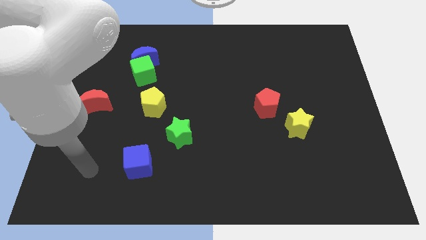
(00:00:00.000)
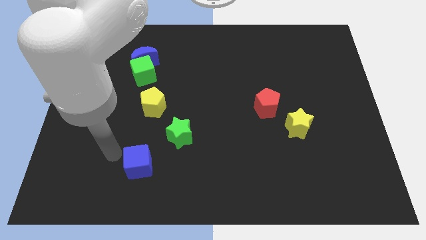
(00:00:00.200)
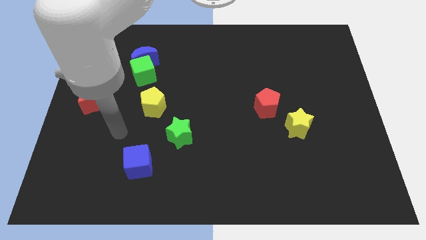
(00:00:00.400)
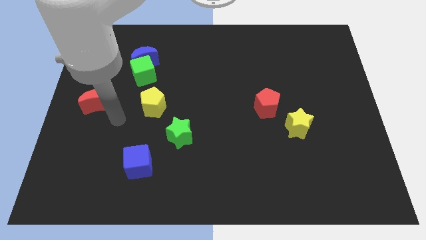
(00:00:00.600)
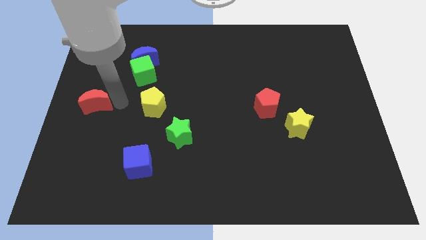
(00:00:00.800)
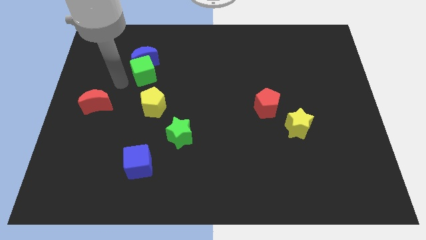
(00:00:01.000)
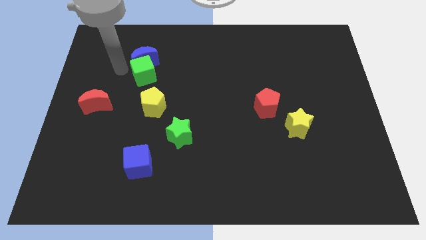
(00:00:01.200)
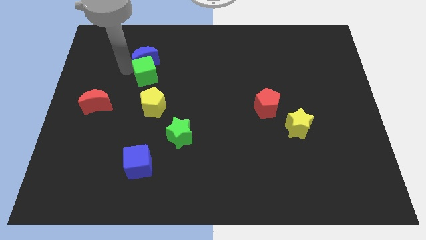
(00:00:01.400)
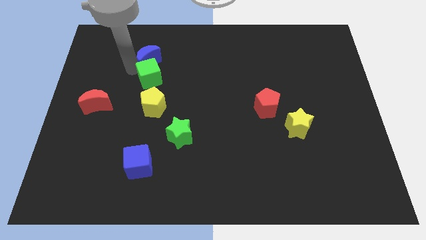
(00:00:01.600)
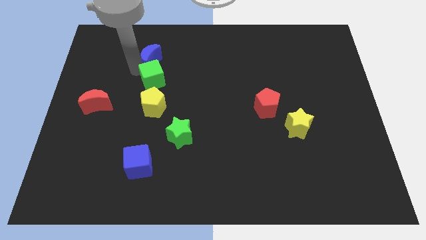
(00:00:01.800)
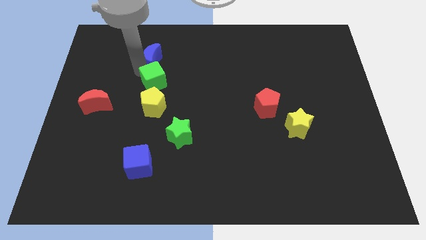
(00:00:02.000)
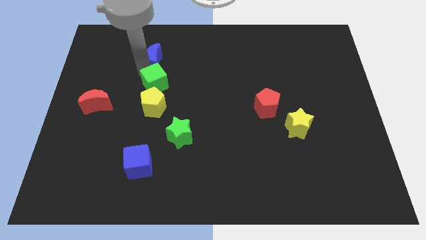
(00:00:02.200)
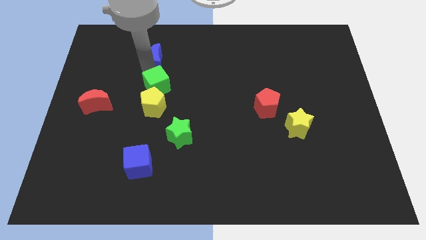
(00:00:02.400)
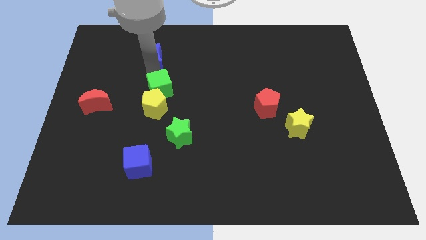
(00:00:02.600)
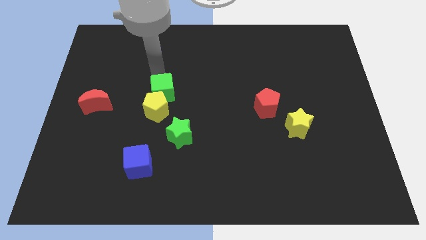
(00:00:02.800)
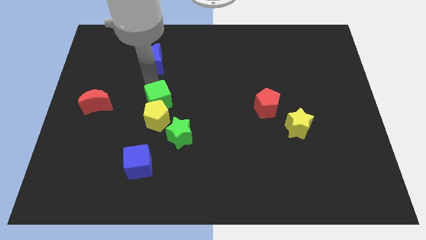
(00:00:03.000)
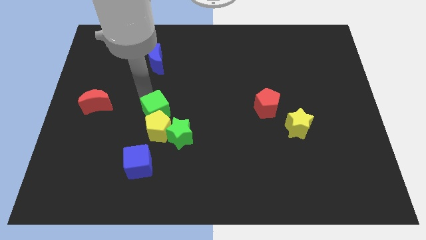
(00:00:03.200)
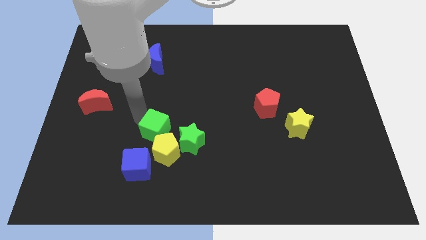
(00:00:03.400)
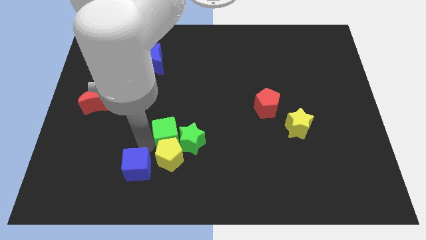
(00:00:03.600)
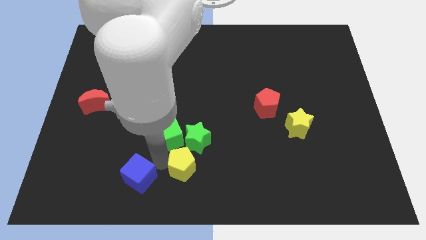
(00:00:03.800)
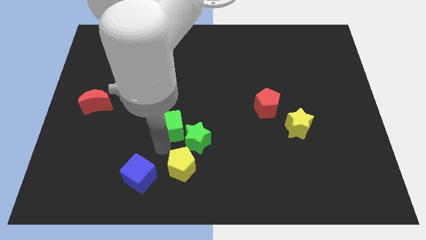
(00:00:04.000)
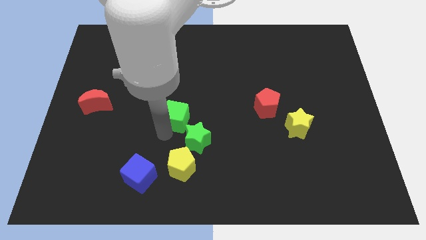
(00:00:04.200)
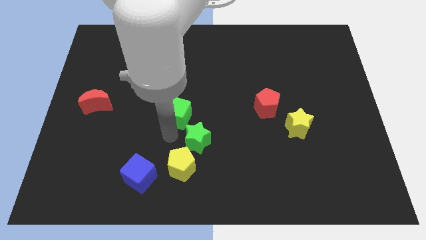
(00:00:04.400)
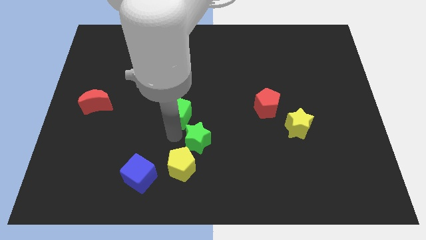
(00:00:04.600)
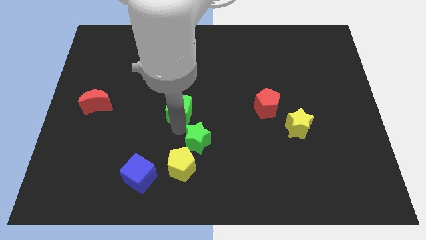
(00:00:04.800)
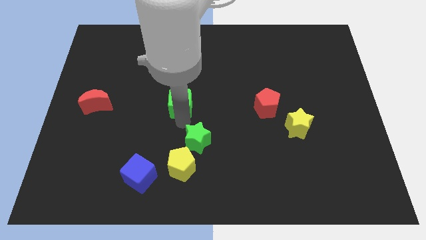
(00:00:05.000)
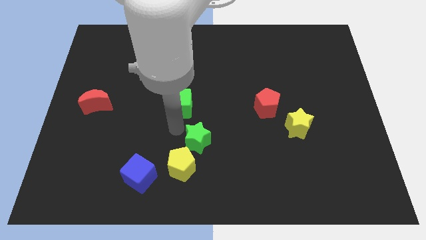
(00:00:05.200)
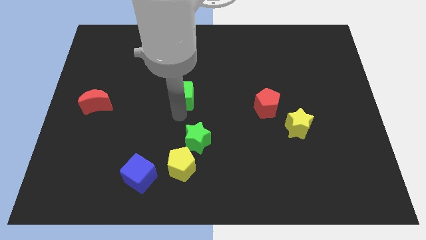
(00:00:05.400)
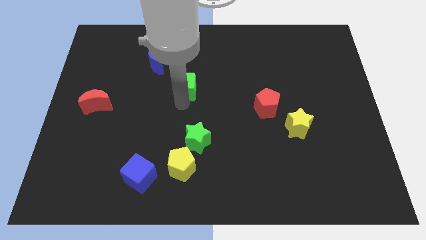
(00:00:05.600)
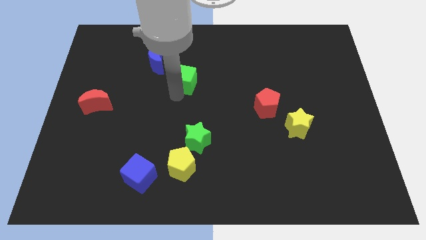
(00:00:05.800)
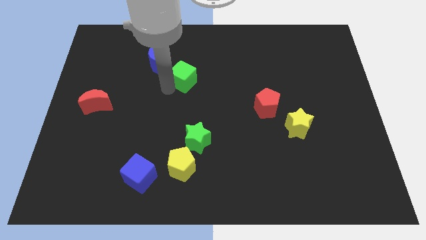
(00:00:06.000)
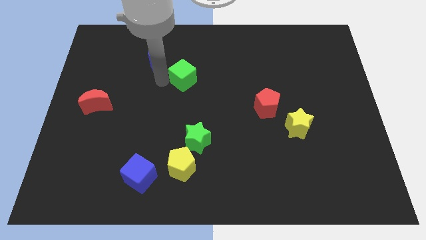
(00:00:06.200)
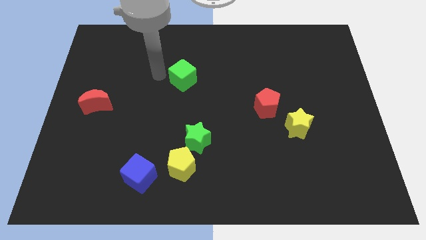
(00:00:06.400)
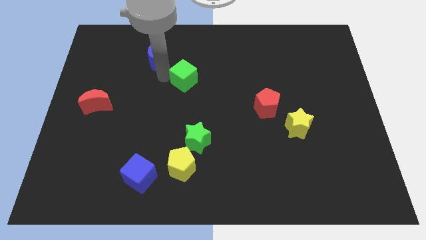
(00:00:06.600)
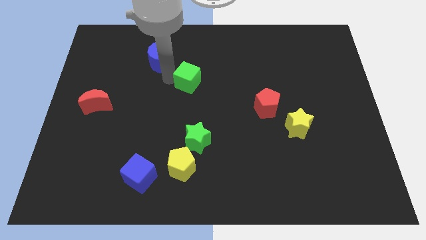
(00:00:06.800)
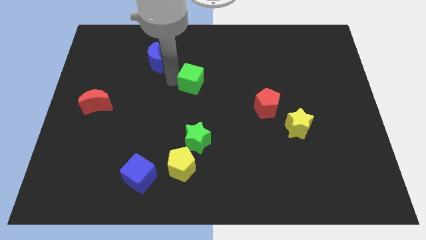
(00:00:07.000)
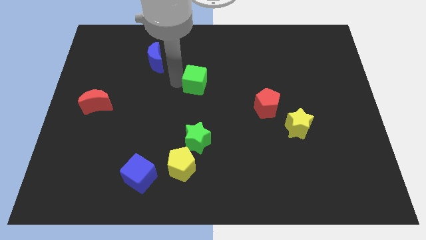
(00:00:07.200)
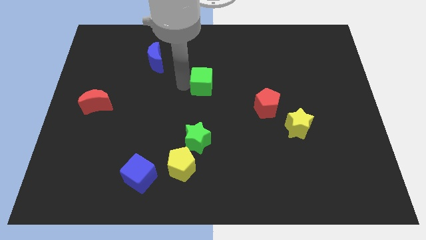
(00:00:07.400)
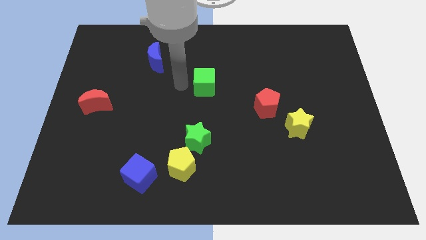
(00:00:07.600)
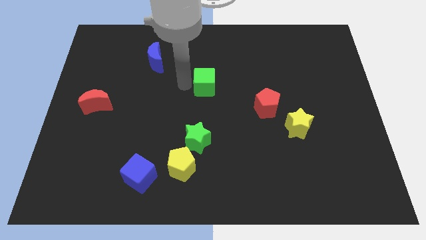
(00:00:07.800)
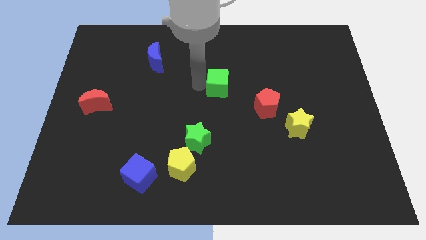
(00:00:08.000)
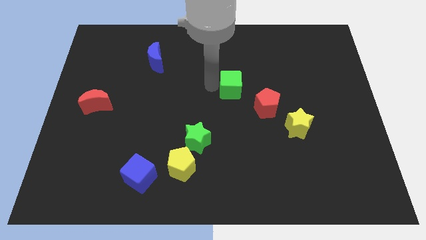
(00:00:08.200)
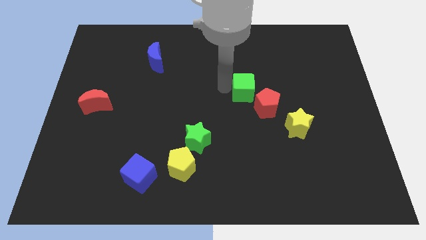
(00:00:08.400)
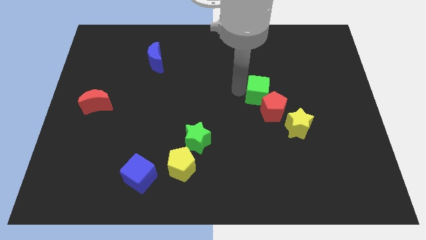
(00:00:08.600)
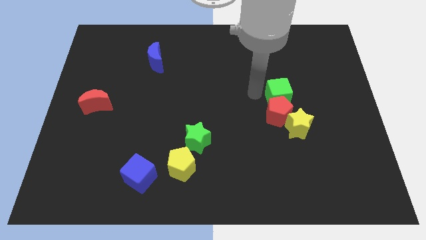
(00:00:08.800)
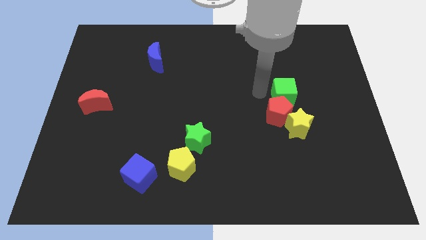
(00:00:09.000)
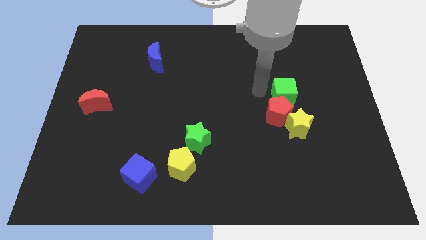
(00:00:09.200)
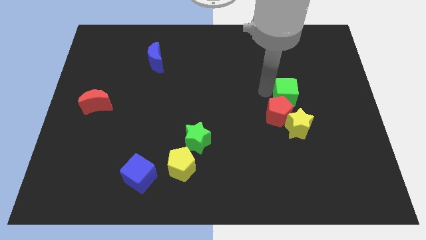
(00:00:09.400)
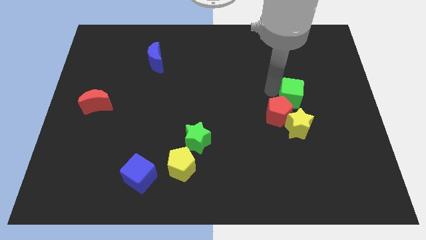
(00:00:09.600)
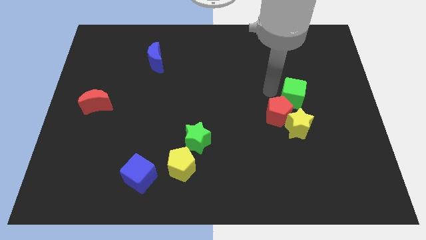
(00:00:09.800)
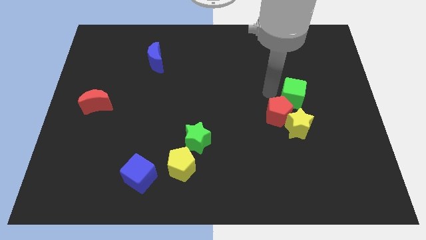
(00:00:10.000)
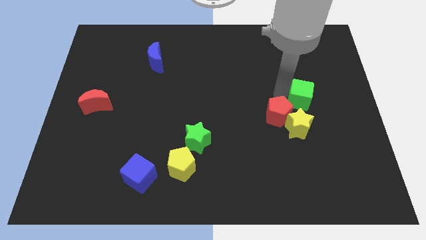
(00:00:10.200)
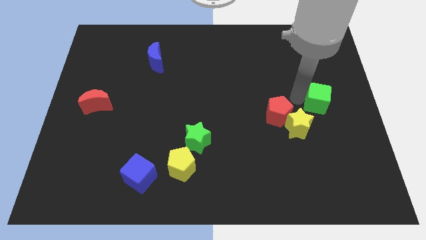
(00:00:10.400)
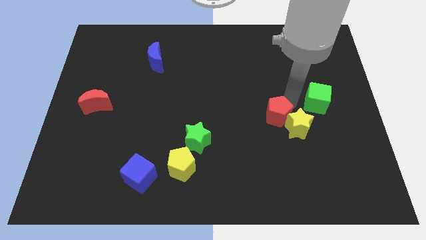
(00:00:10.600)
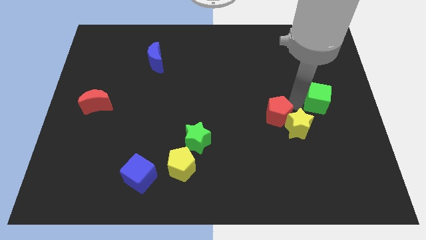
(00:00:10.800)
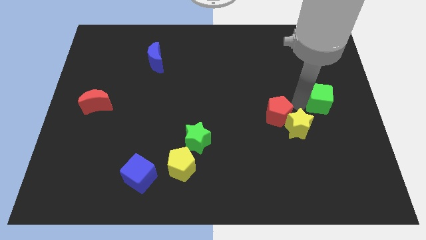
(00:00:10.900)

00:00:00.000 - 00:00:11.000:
slide the green cube to the right side of the board
